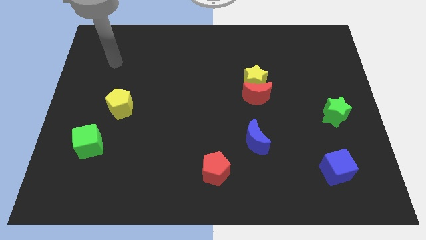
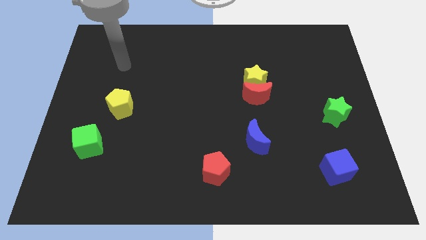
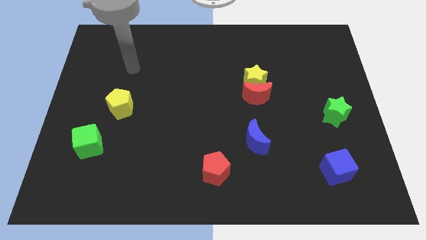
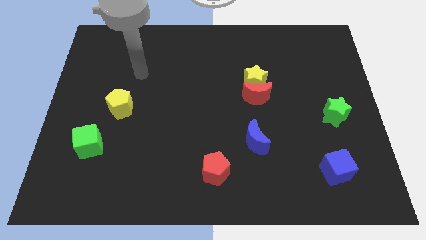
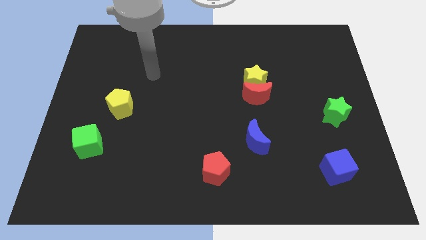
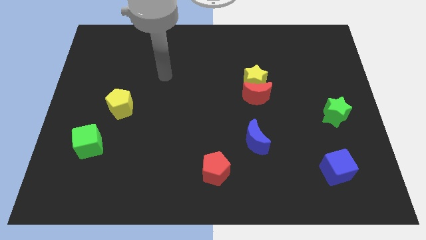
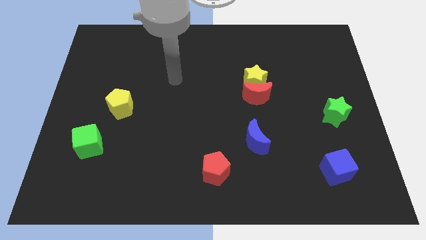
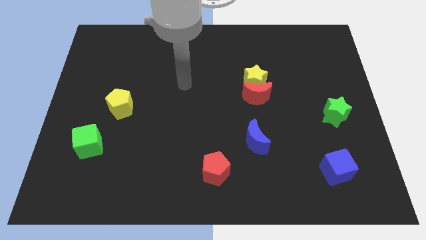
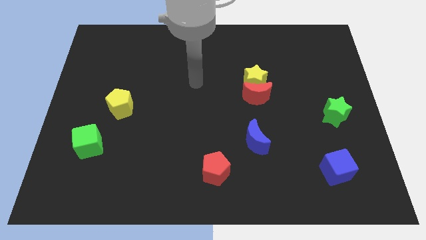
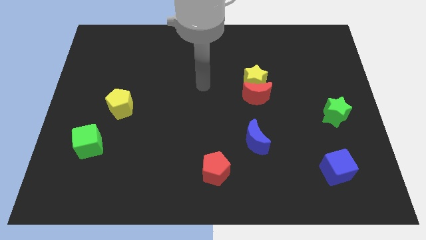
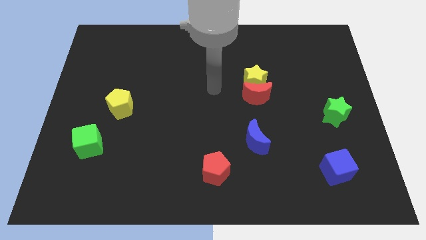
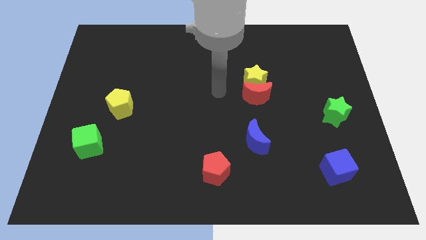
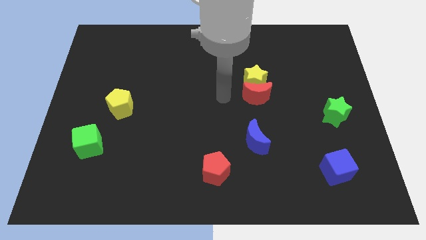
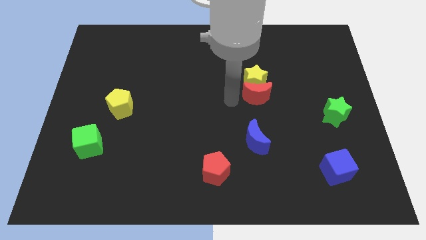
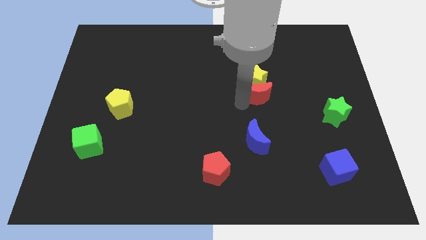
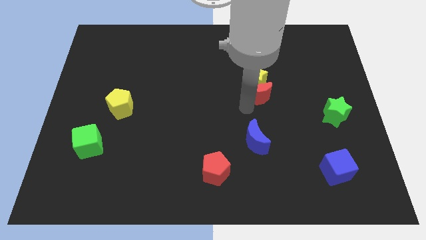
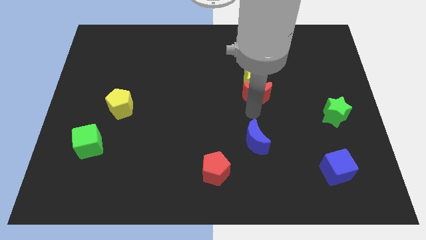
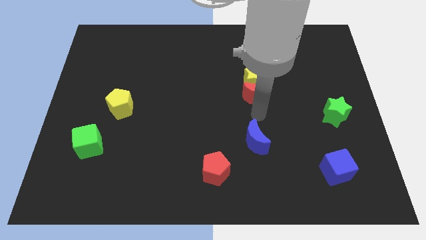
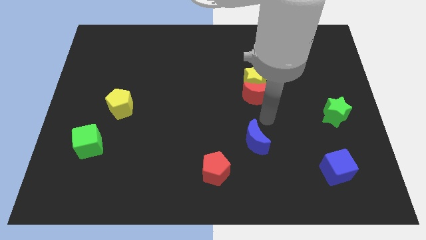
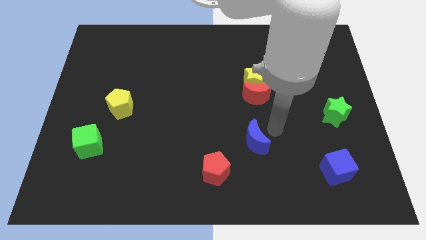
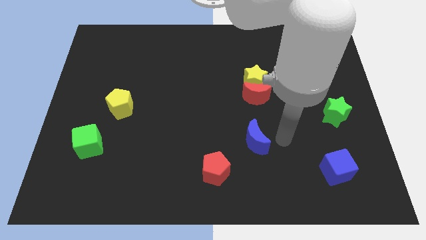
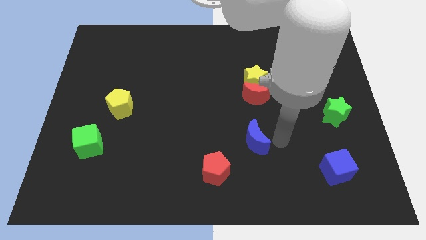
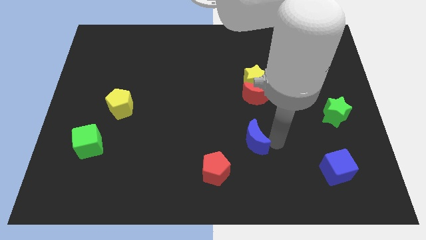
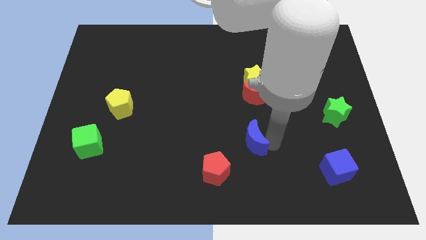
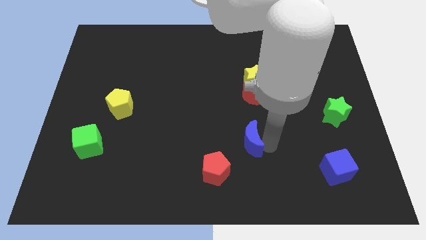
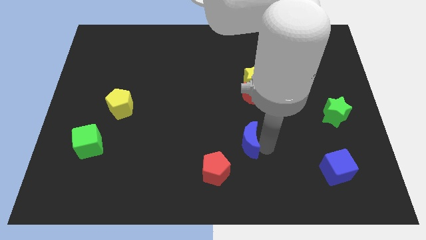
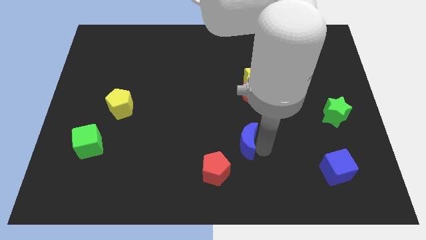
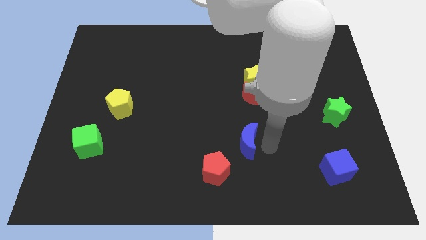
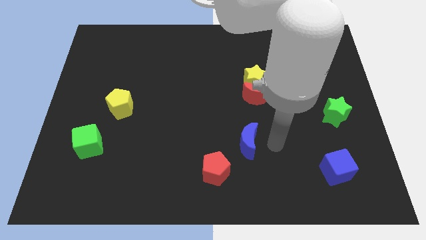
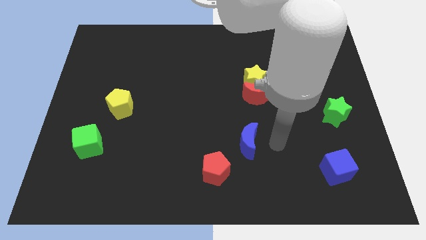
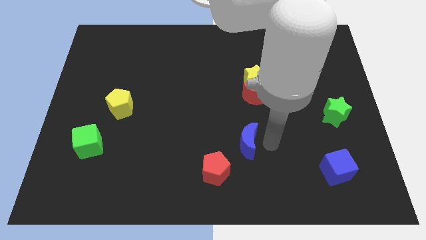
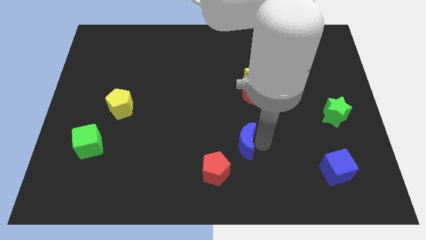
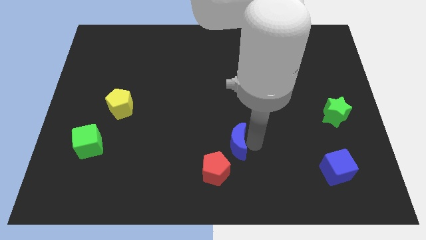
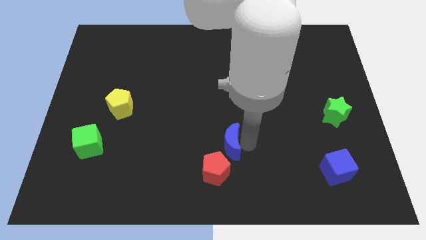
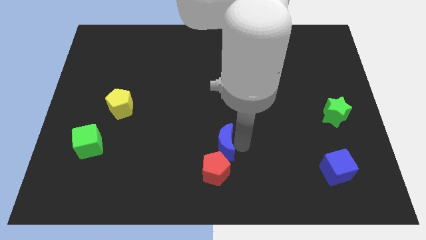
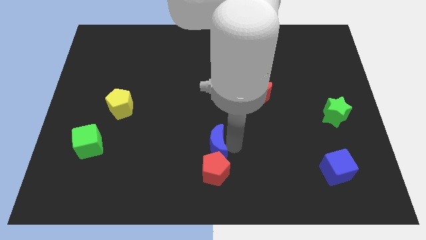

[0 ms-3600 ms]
slide the blue moon left slightly

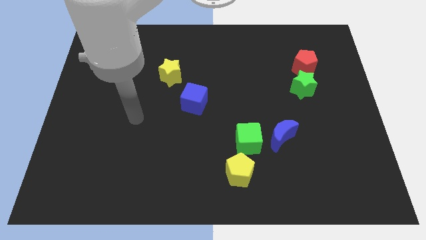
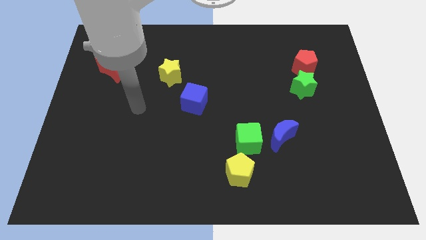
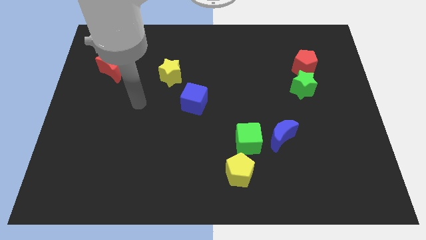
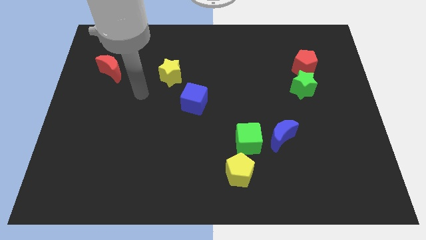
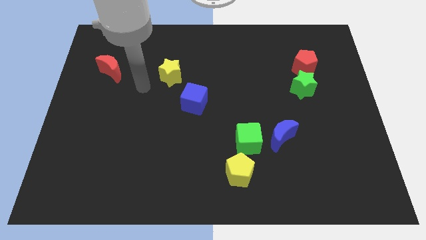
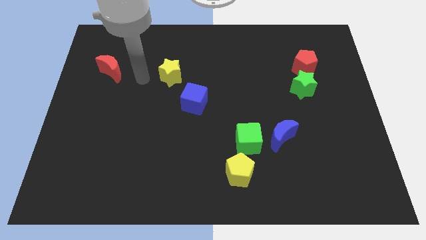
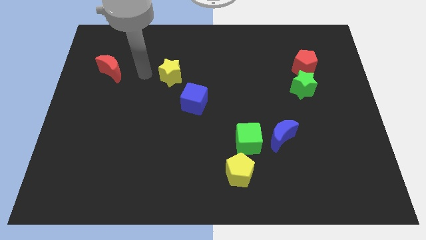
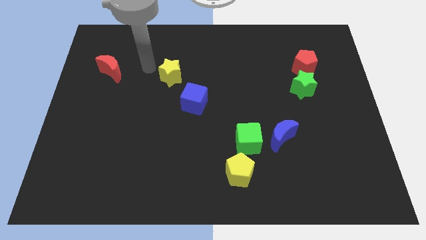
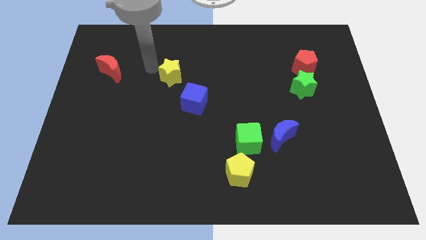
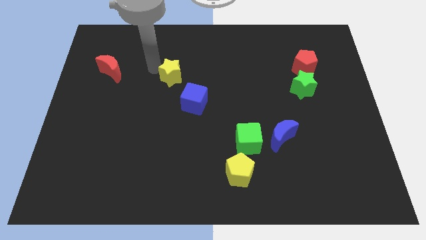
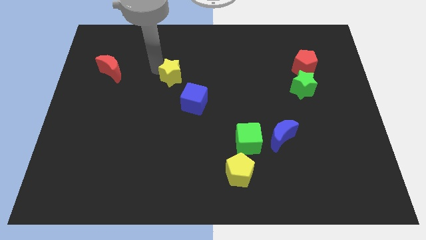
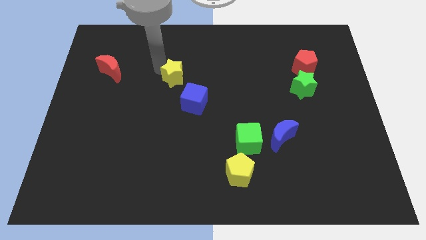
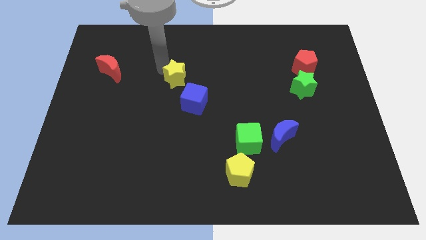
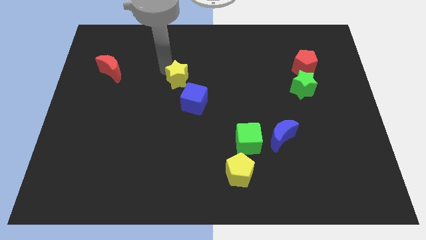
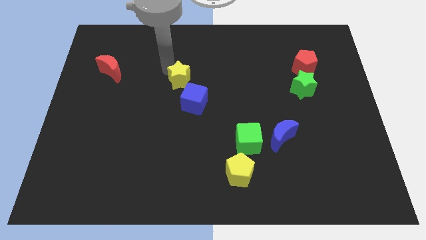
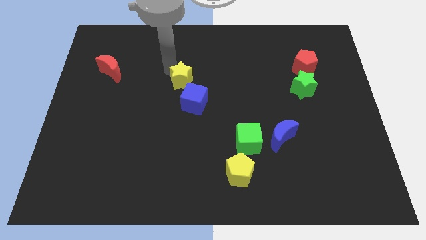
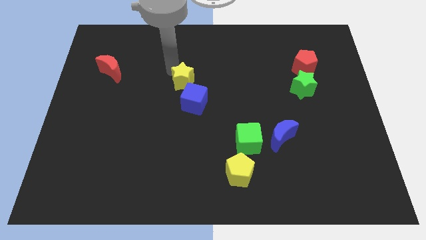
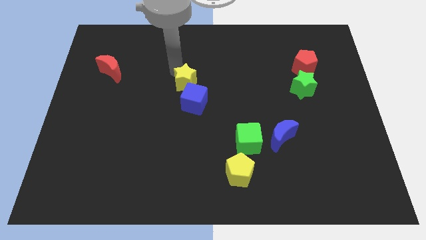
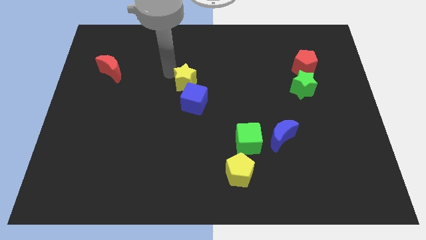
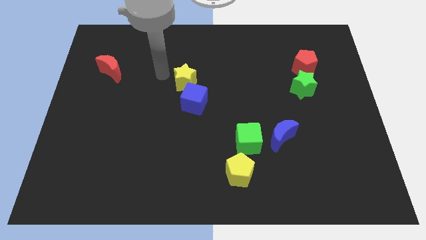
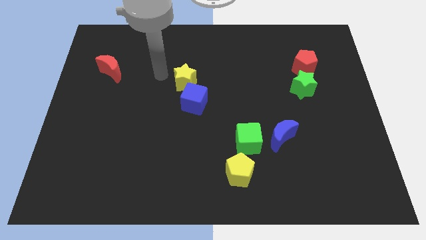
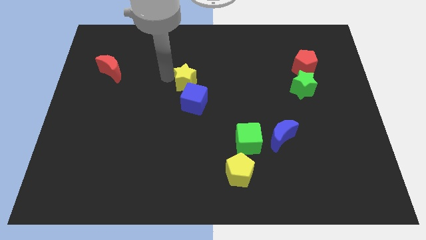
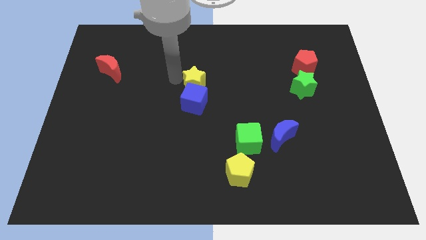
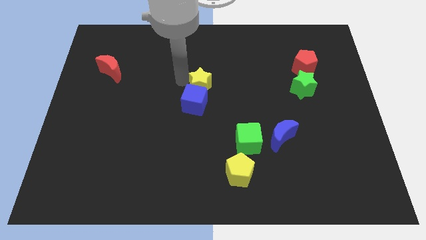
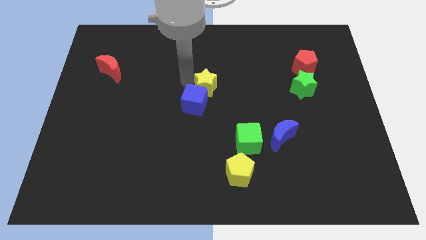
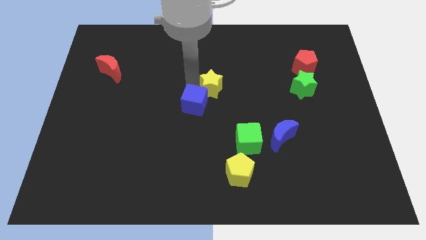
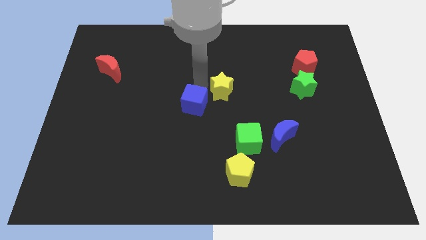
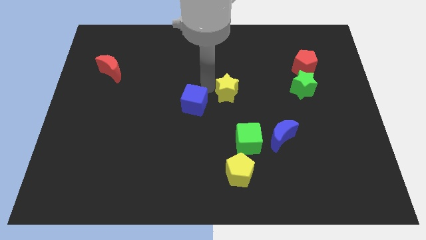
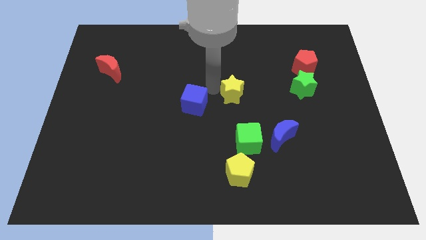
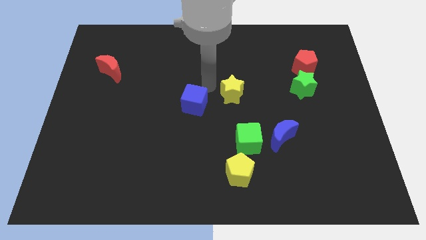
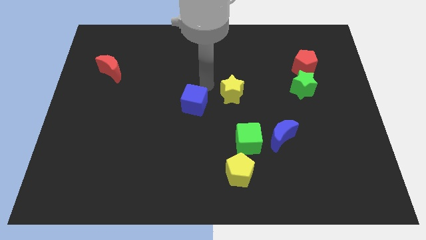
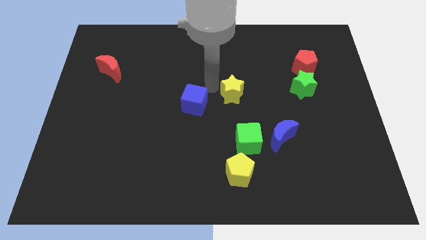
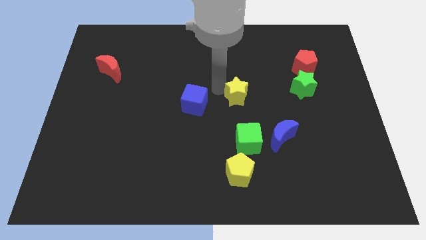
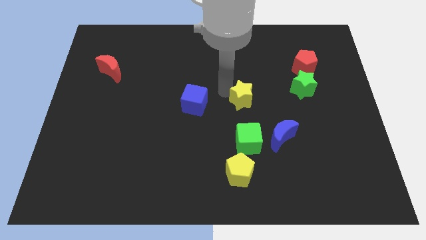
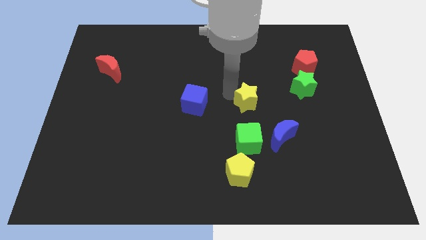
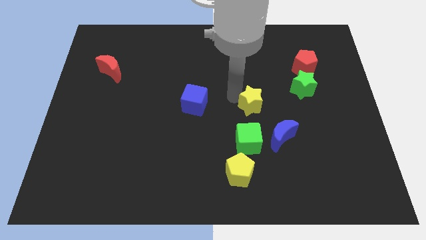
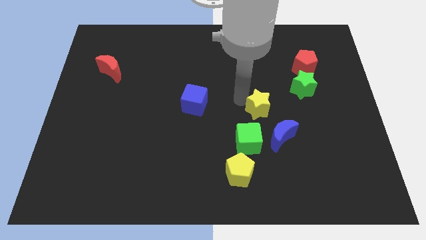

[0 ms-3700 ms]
push the yellow star downwards and then right

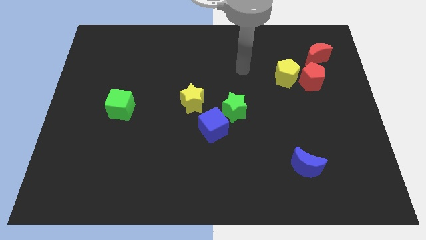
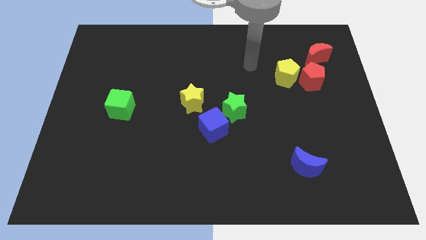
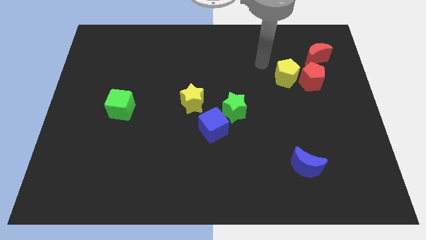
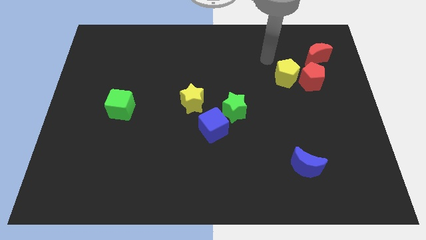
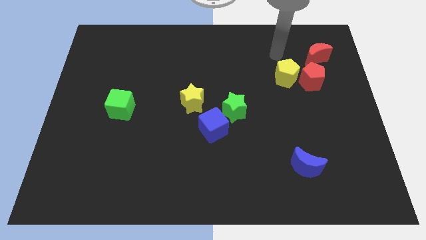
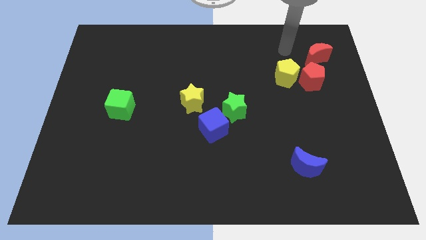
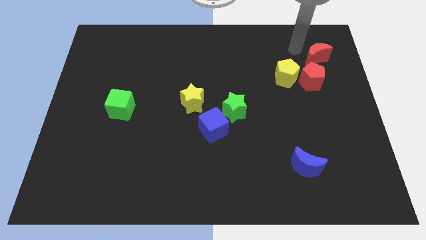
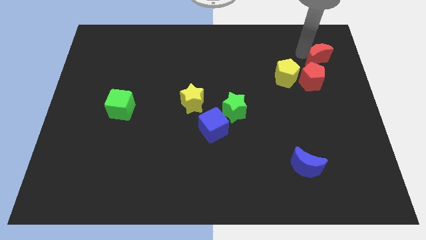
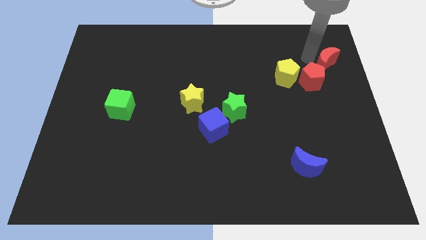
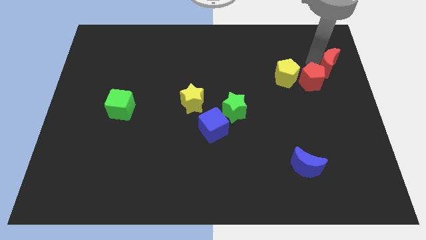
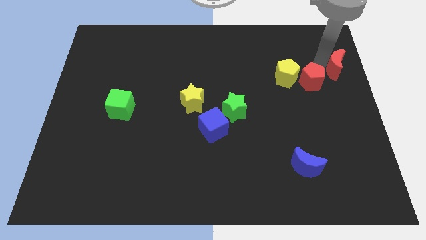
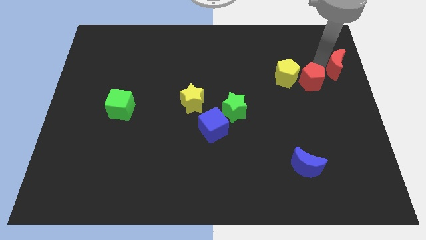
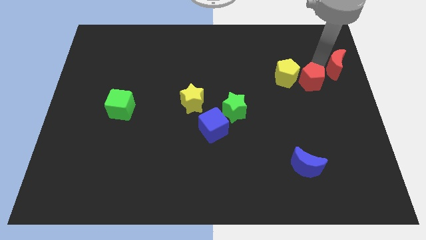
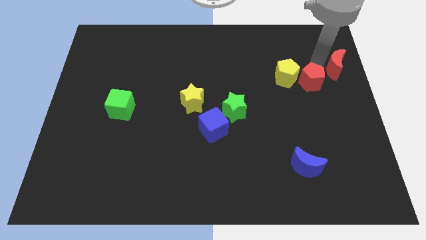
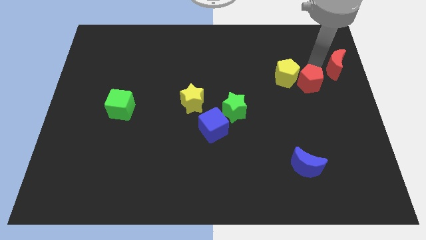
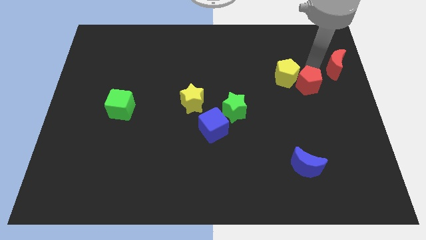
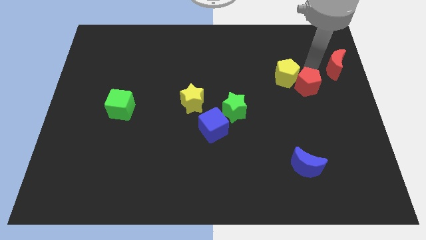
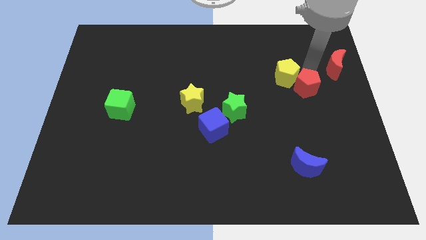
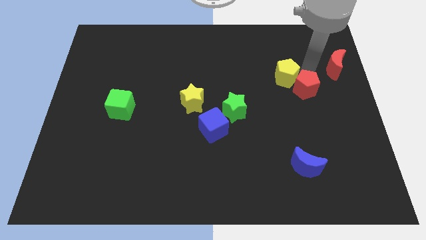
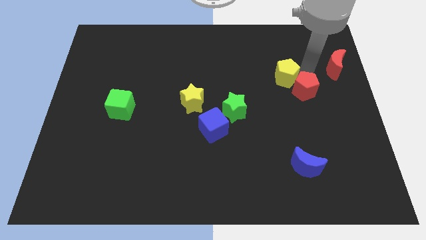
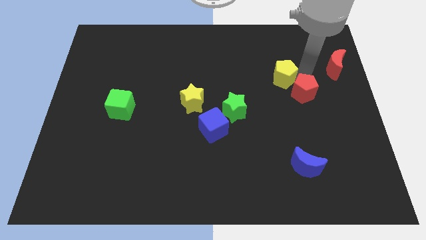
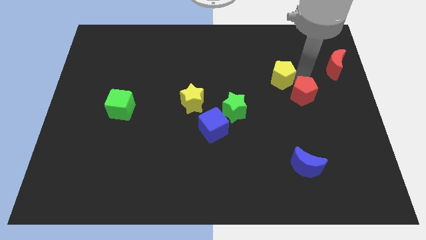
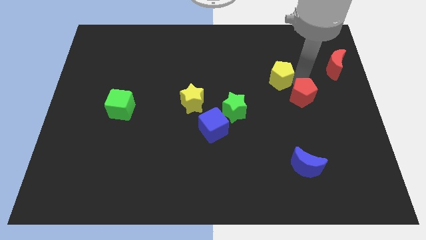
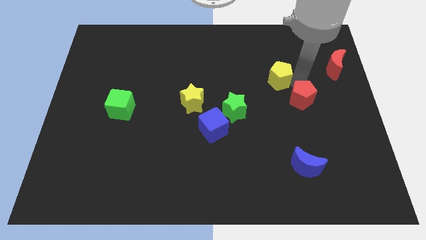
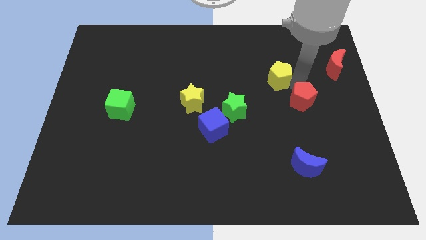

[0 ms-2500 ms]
slightly push the red pentagon down and then to the left
